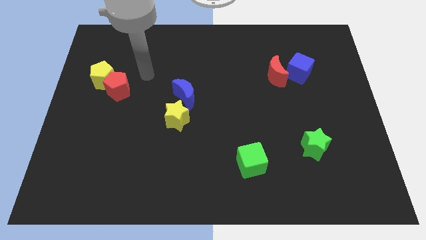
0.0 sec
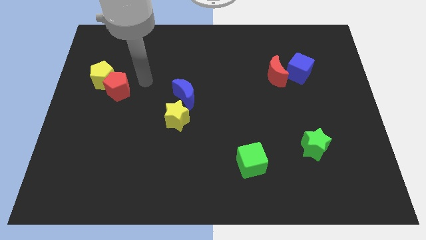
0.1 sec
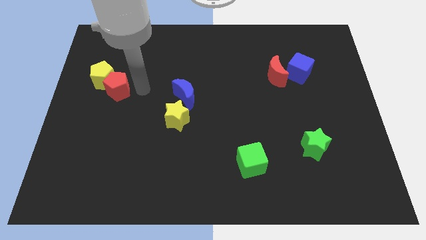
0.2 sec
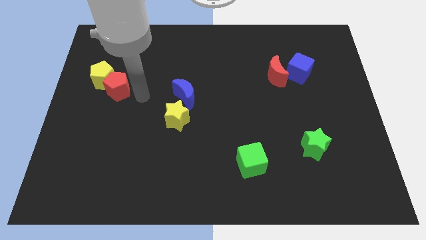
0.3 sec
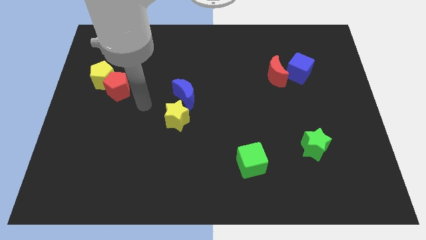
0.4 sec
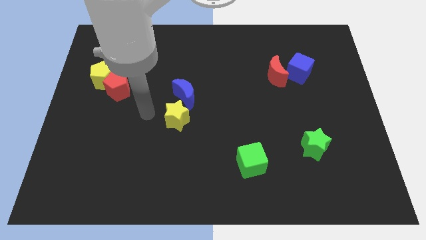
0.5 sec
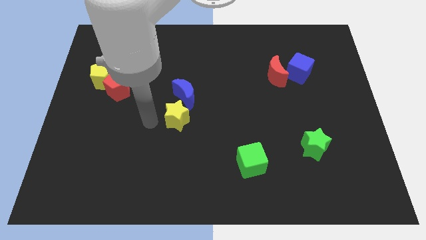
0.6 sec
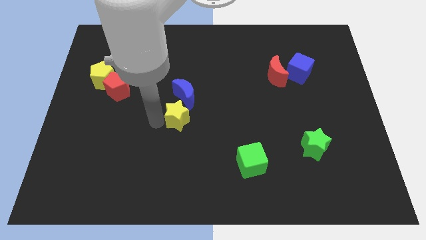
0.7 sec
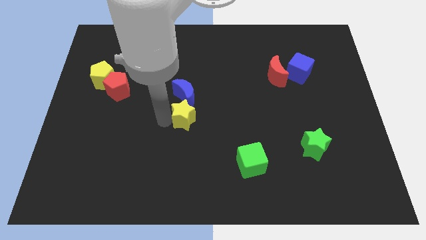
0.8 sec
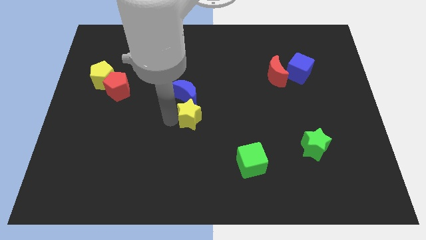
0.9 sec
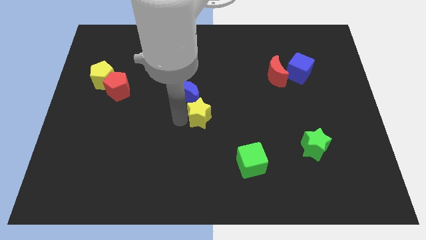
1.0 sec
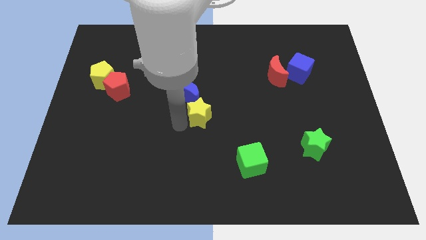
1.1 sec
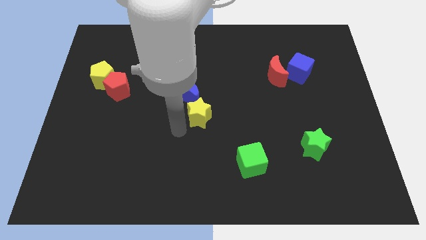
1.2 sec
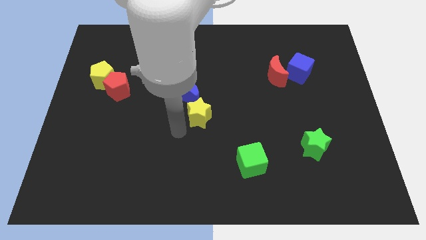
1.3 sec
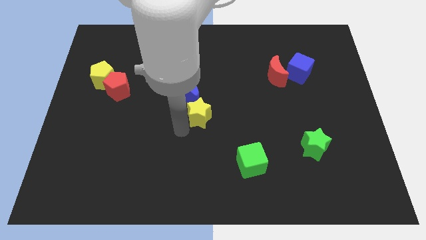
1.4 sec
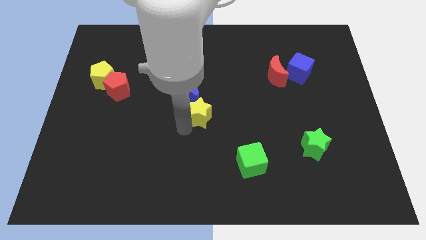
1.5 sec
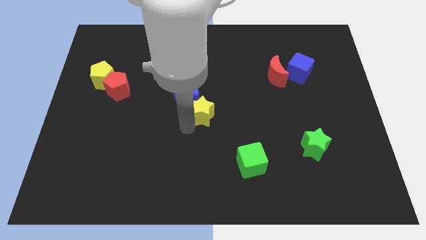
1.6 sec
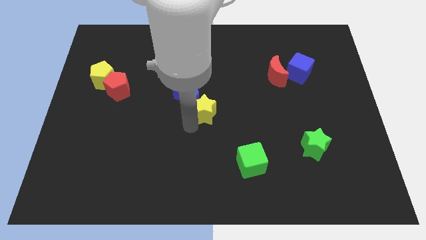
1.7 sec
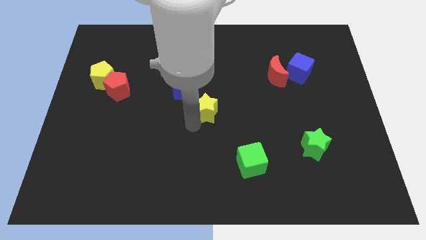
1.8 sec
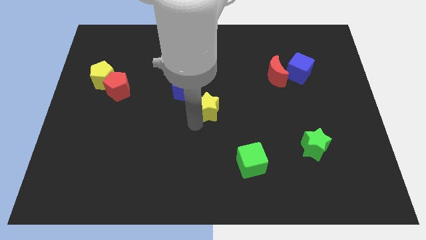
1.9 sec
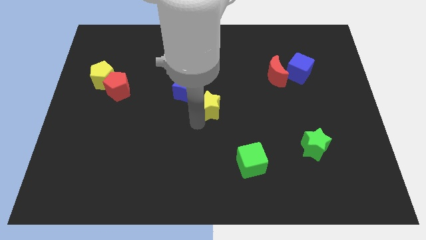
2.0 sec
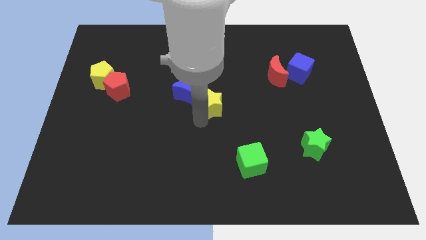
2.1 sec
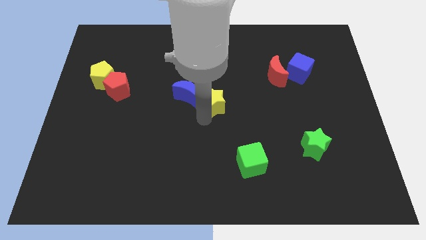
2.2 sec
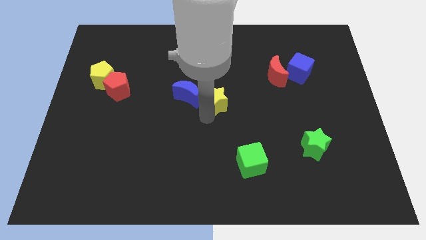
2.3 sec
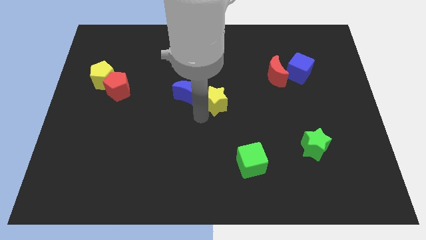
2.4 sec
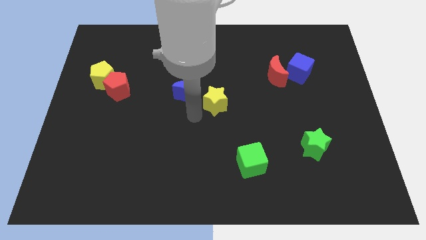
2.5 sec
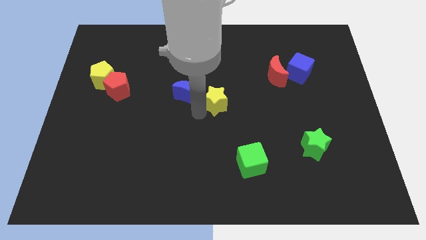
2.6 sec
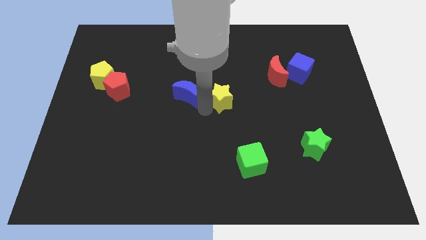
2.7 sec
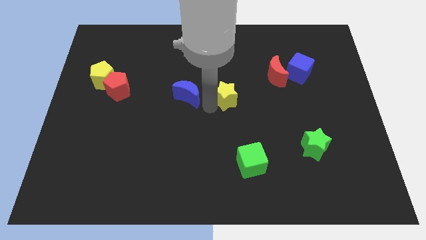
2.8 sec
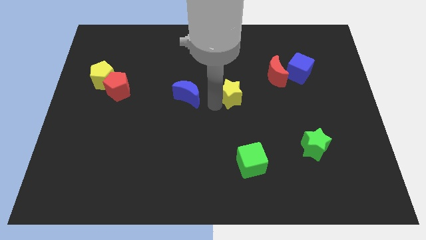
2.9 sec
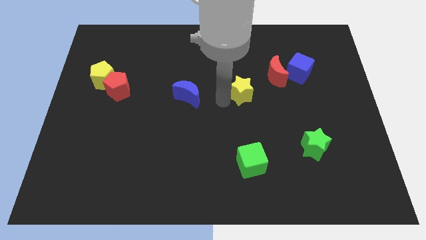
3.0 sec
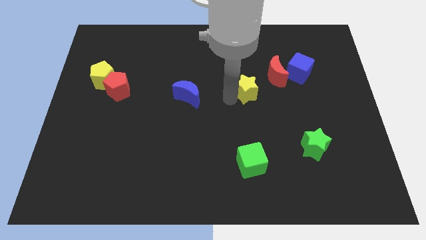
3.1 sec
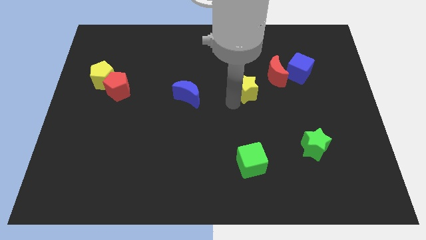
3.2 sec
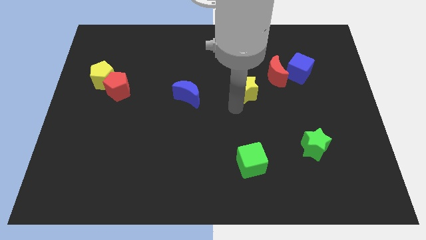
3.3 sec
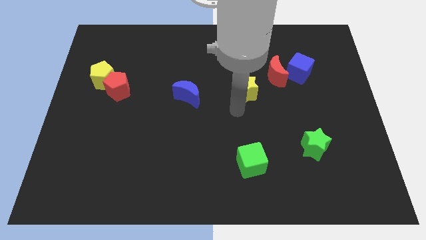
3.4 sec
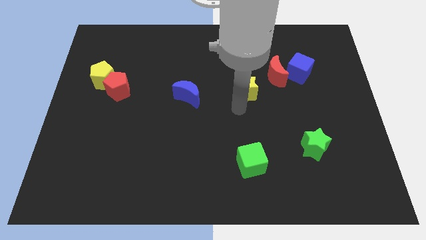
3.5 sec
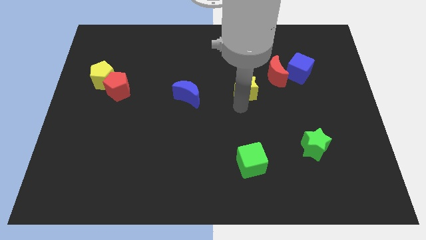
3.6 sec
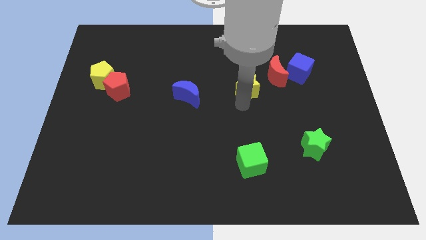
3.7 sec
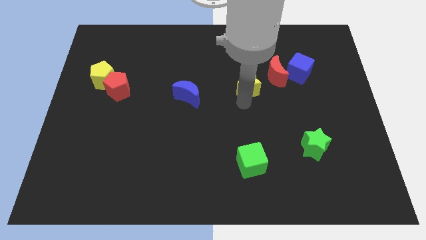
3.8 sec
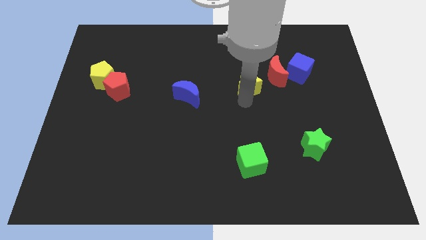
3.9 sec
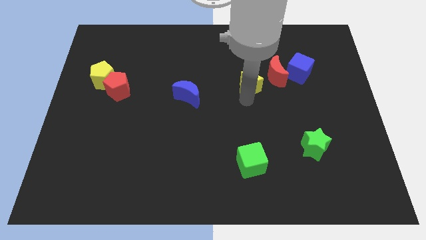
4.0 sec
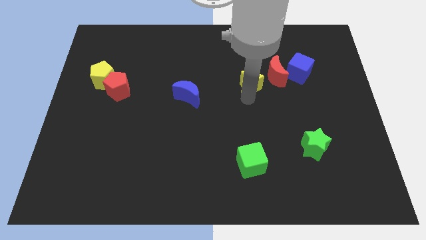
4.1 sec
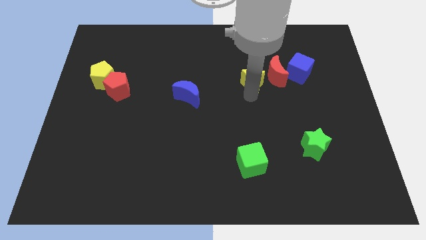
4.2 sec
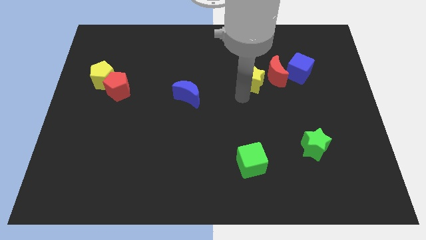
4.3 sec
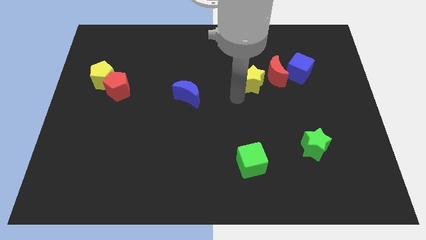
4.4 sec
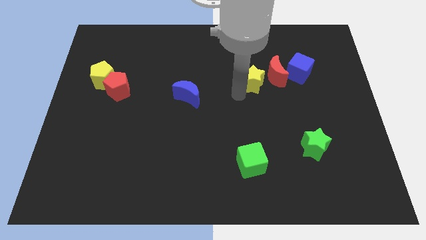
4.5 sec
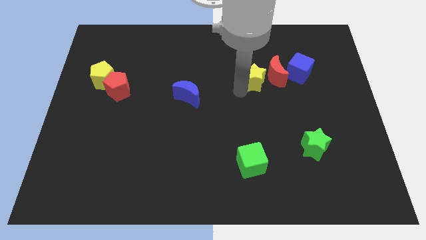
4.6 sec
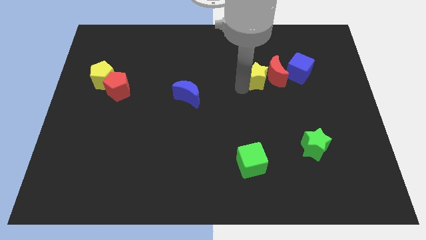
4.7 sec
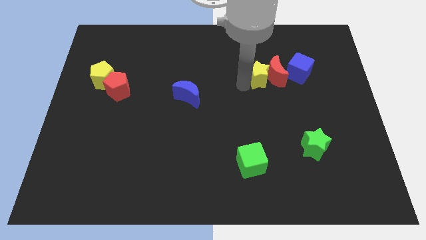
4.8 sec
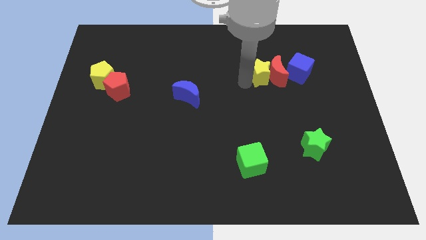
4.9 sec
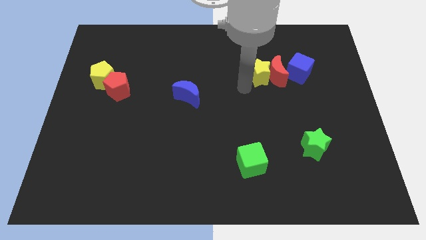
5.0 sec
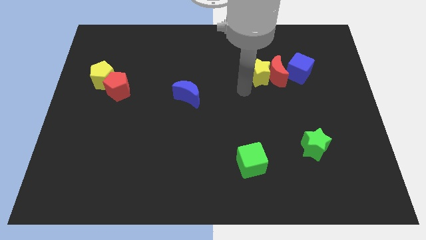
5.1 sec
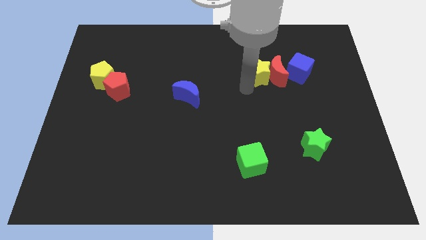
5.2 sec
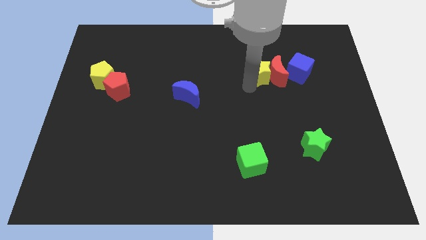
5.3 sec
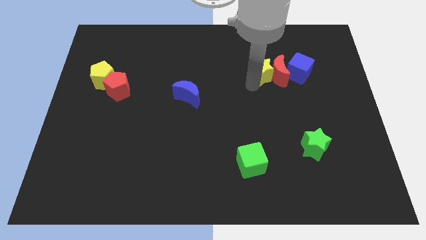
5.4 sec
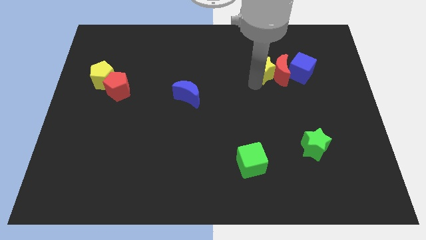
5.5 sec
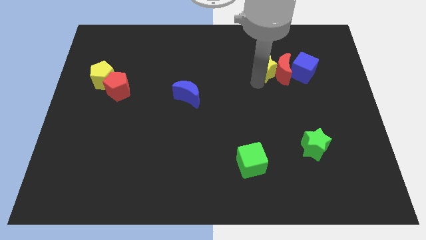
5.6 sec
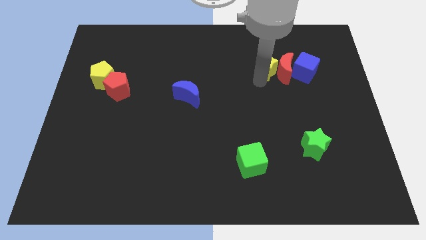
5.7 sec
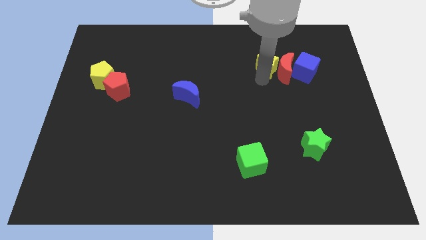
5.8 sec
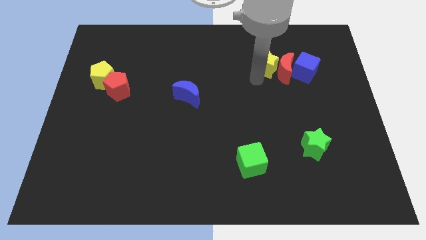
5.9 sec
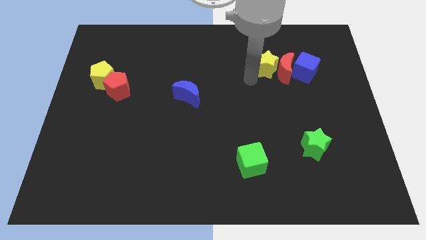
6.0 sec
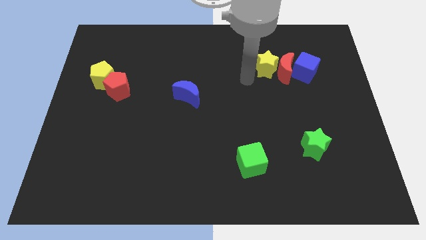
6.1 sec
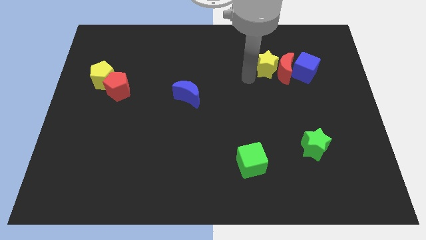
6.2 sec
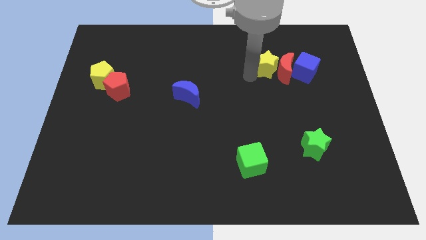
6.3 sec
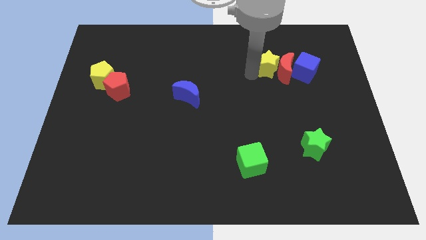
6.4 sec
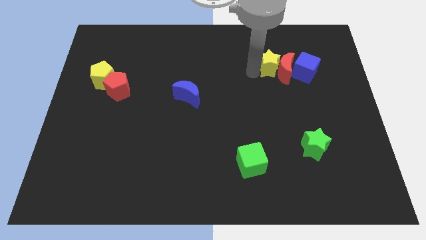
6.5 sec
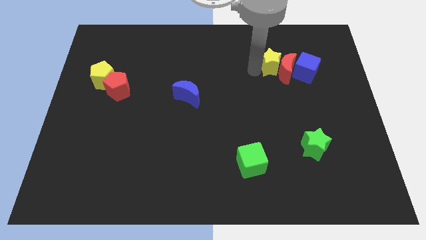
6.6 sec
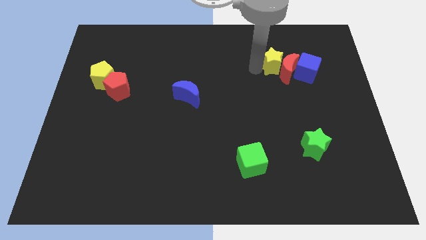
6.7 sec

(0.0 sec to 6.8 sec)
put the yellow star diagonally up and to the left of the blue cube
